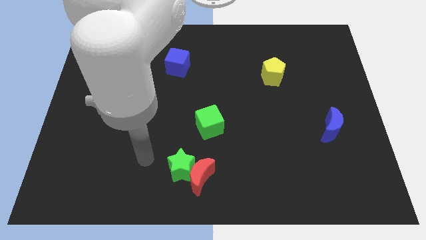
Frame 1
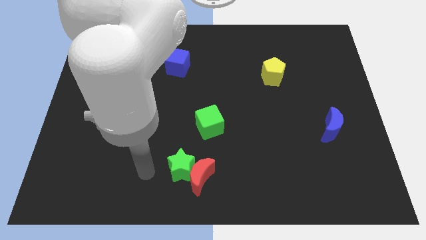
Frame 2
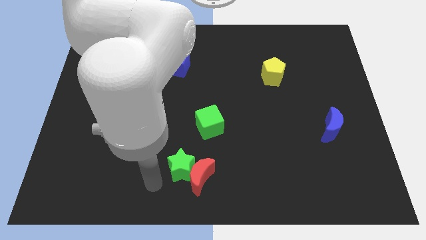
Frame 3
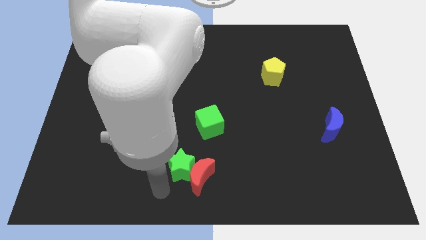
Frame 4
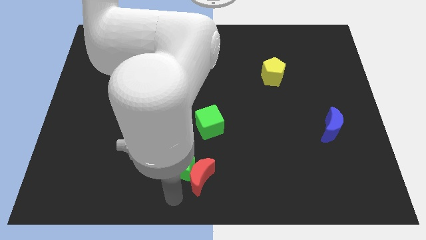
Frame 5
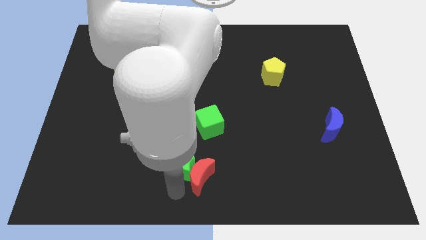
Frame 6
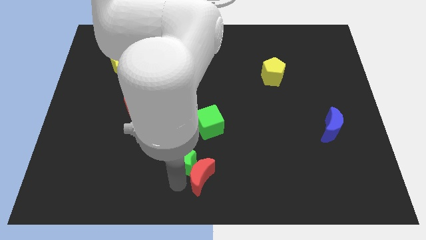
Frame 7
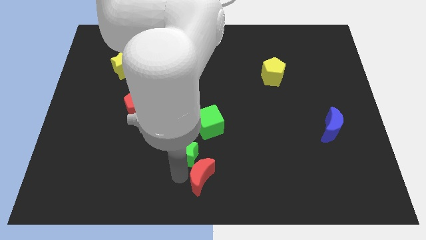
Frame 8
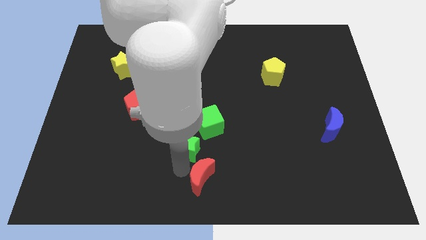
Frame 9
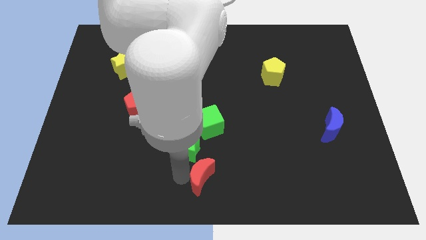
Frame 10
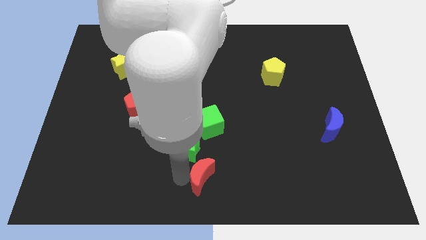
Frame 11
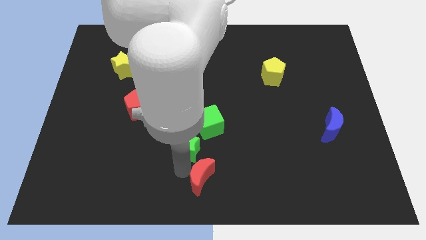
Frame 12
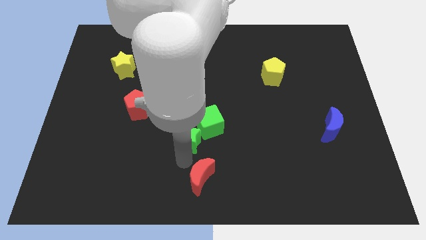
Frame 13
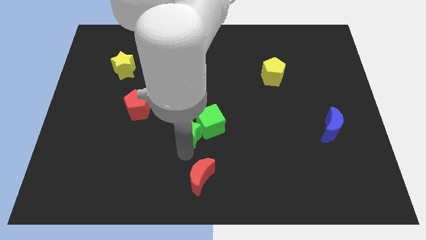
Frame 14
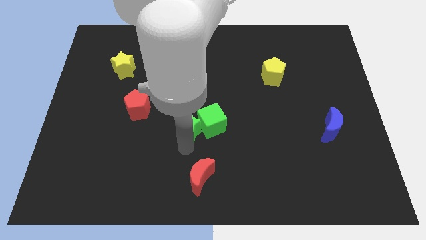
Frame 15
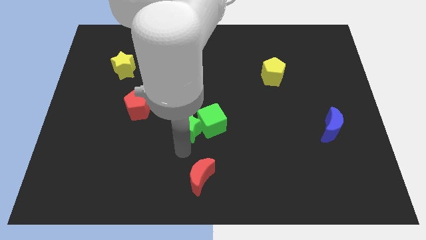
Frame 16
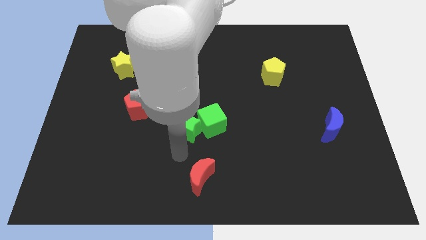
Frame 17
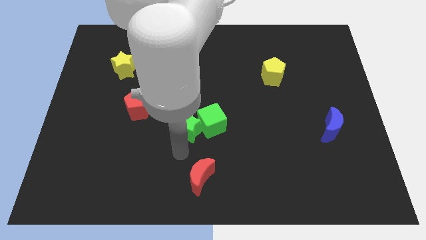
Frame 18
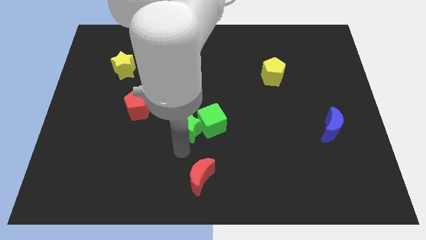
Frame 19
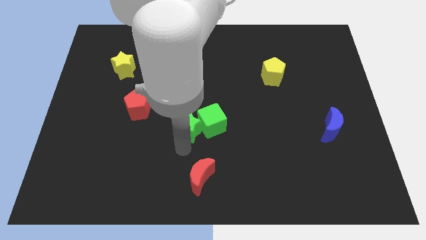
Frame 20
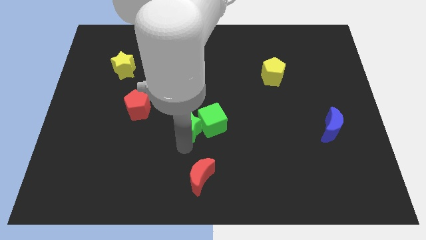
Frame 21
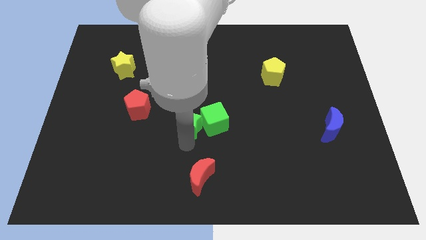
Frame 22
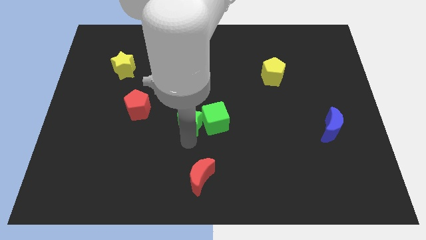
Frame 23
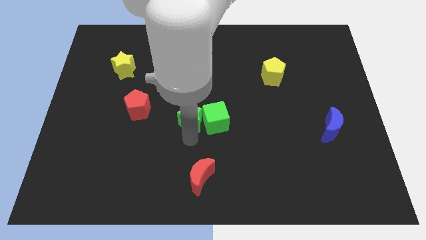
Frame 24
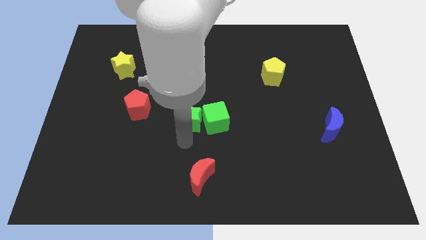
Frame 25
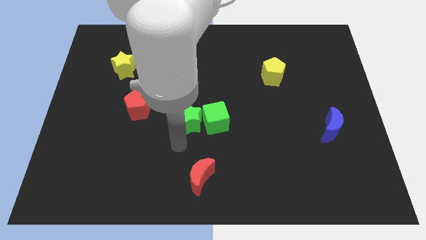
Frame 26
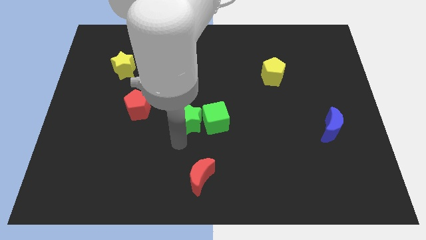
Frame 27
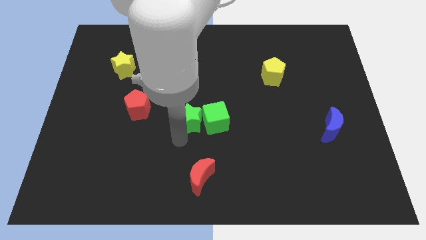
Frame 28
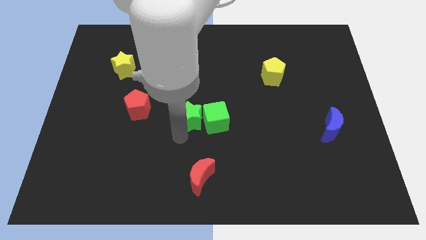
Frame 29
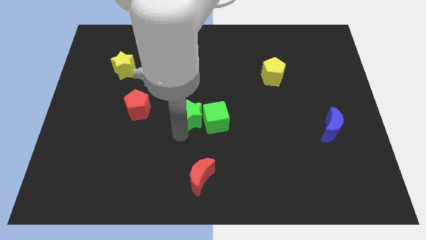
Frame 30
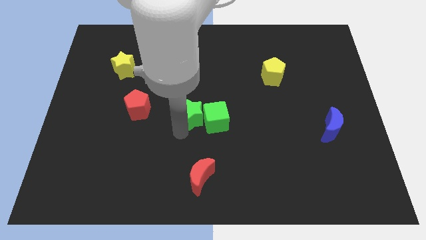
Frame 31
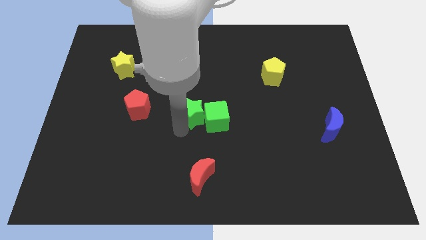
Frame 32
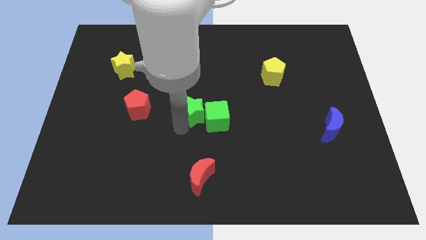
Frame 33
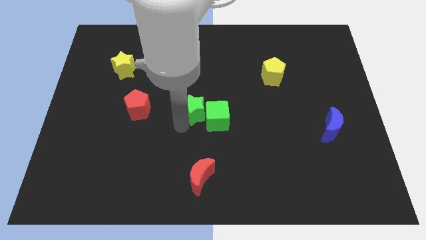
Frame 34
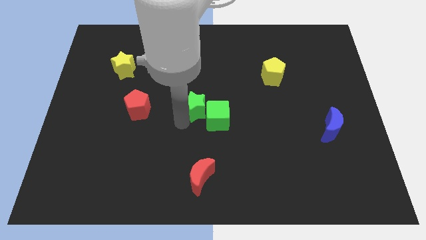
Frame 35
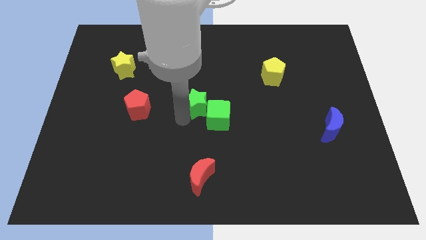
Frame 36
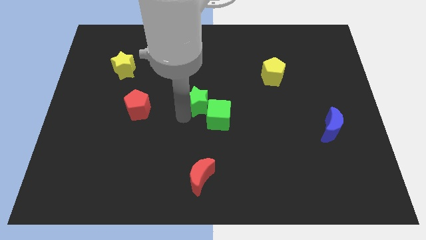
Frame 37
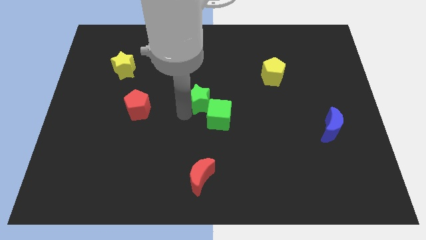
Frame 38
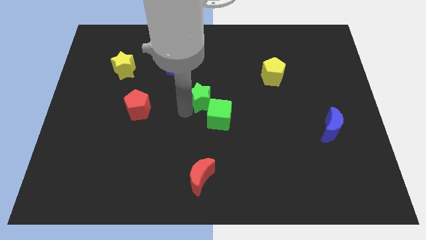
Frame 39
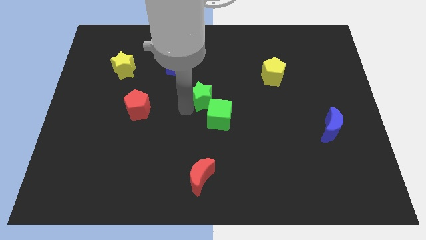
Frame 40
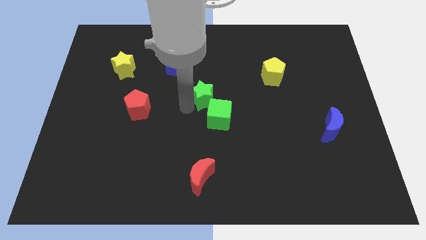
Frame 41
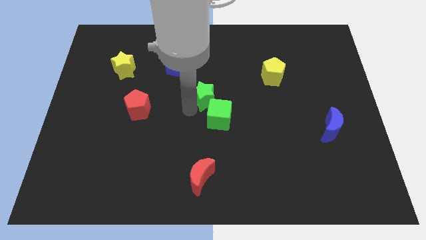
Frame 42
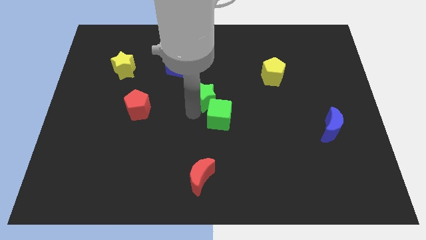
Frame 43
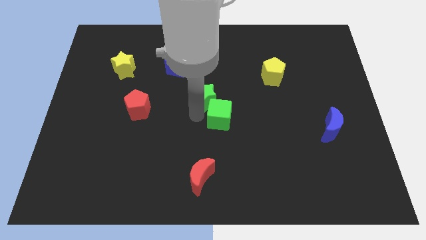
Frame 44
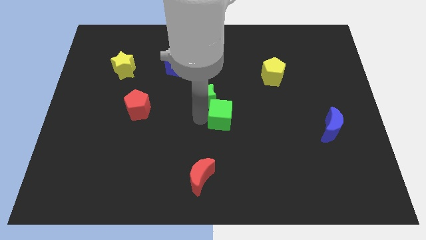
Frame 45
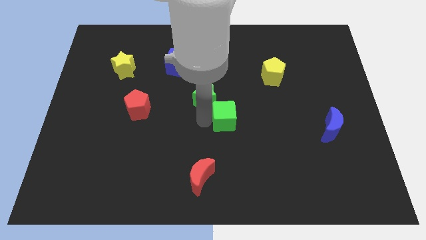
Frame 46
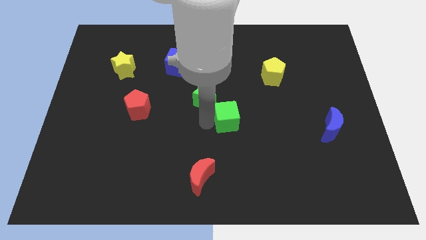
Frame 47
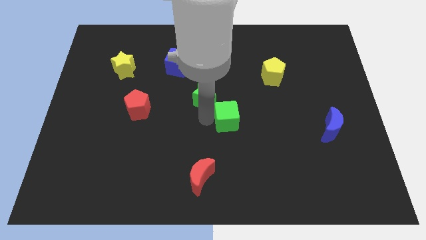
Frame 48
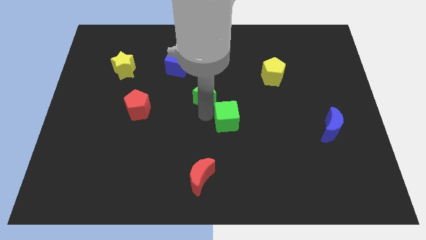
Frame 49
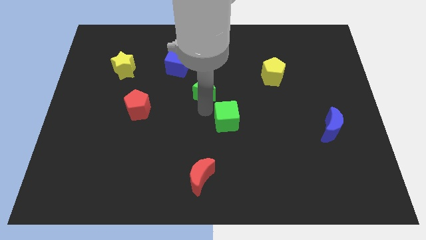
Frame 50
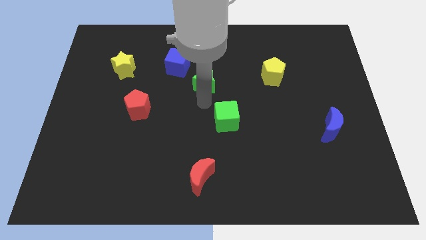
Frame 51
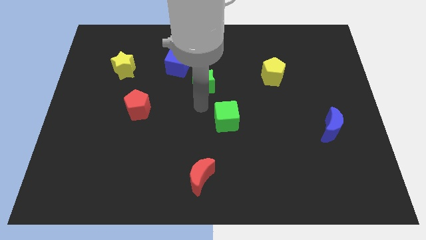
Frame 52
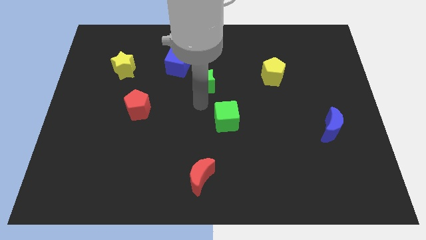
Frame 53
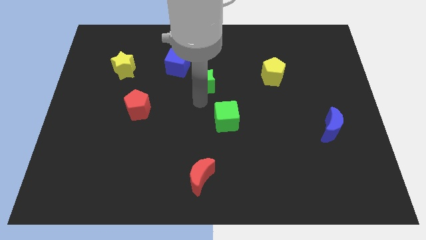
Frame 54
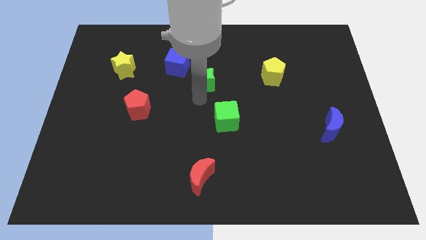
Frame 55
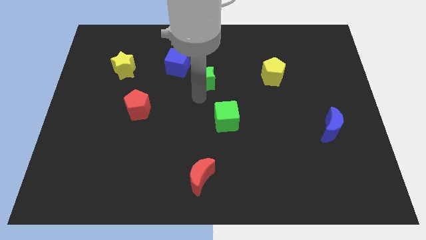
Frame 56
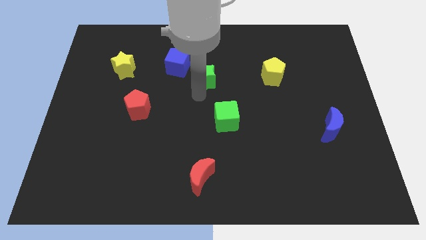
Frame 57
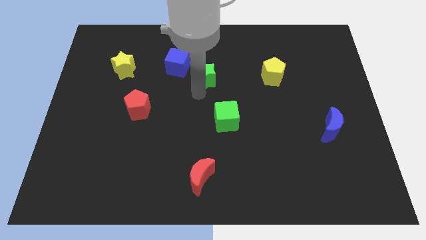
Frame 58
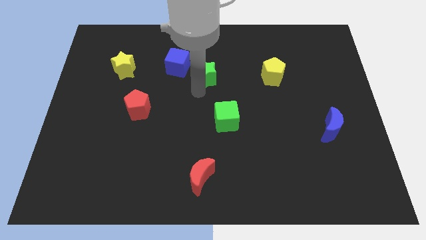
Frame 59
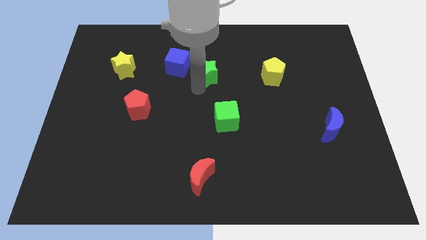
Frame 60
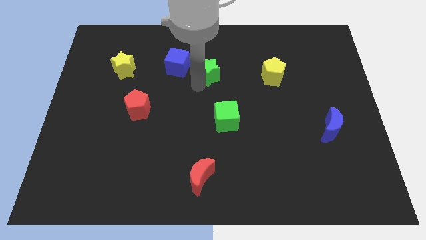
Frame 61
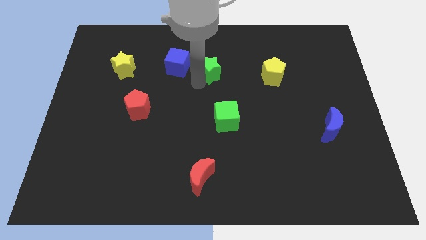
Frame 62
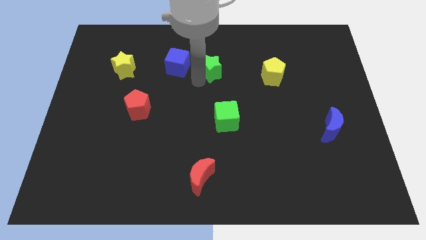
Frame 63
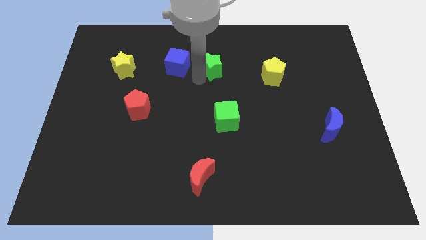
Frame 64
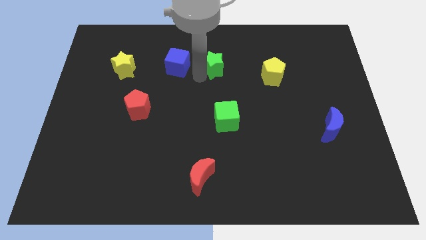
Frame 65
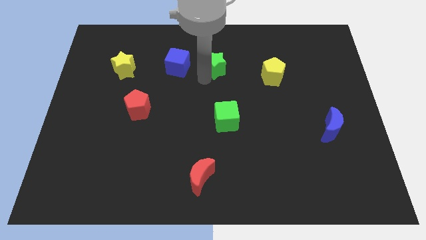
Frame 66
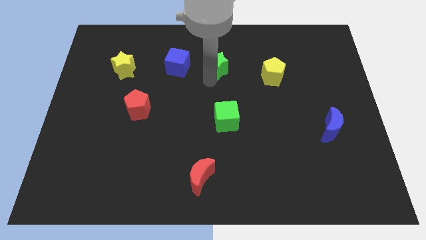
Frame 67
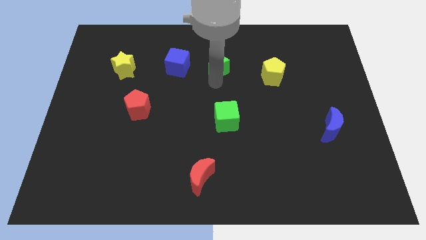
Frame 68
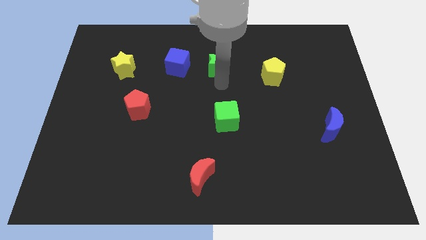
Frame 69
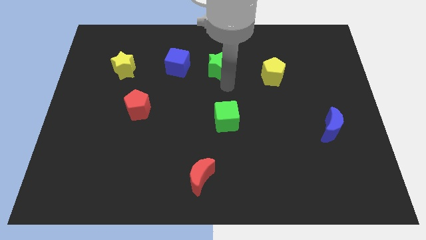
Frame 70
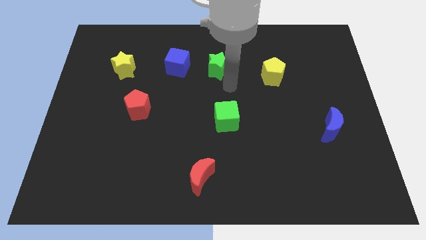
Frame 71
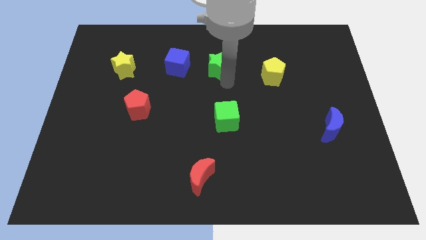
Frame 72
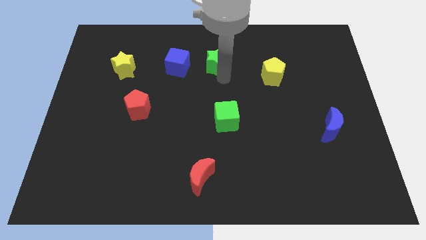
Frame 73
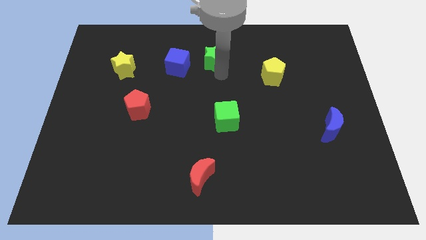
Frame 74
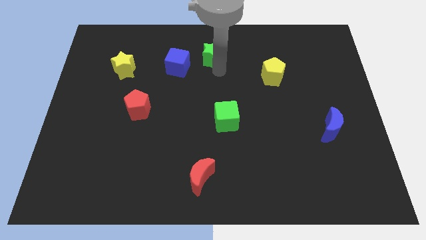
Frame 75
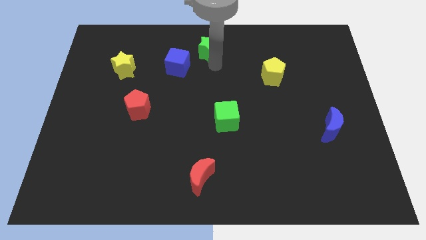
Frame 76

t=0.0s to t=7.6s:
slide the green star to the top
